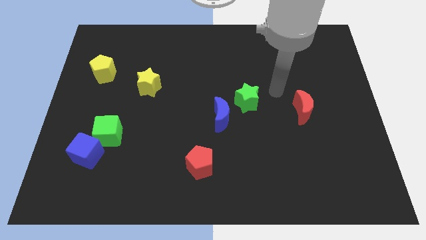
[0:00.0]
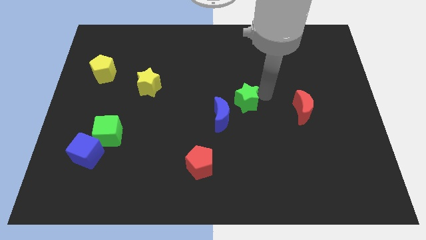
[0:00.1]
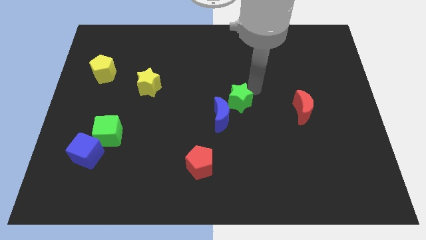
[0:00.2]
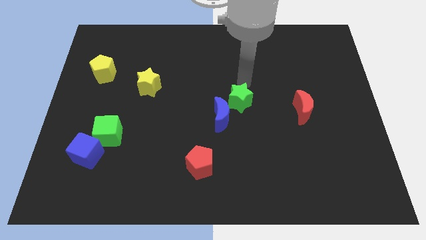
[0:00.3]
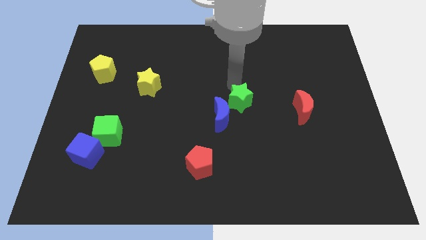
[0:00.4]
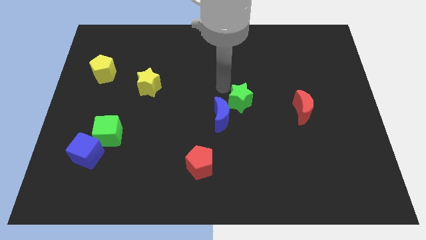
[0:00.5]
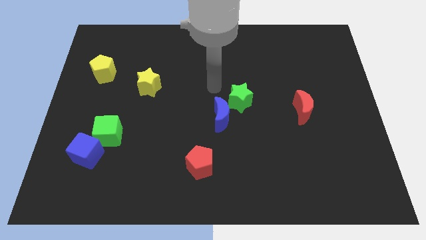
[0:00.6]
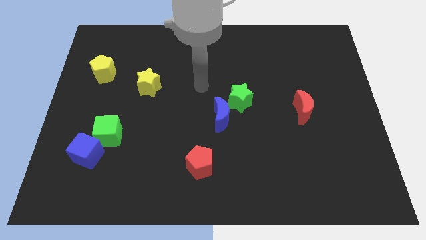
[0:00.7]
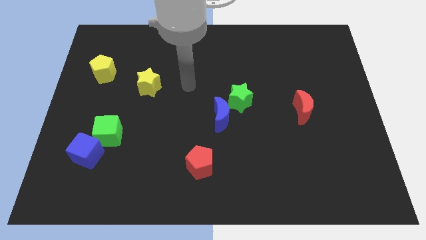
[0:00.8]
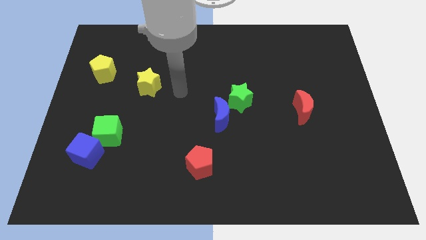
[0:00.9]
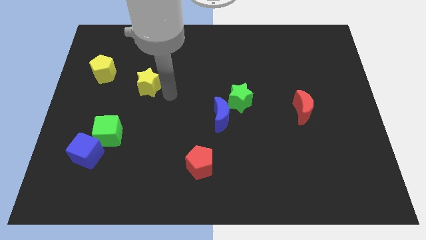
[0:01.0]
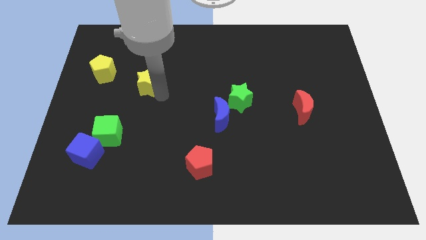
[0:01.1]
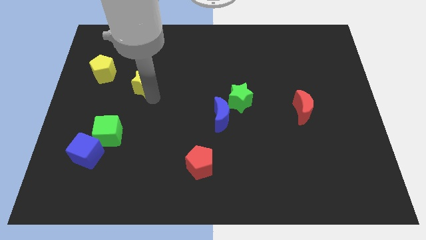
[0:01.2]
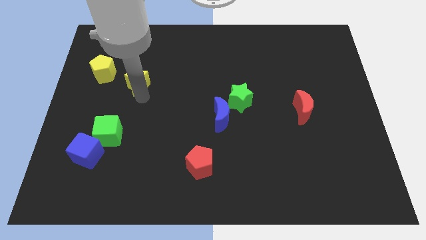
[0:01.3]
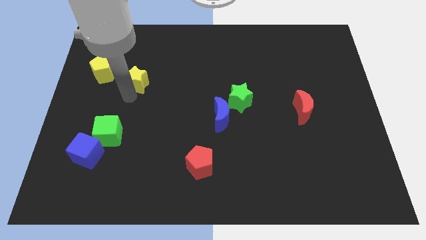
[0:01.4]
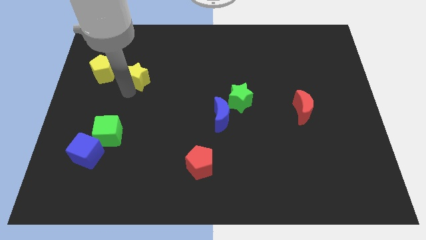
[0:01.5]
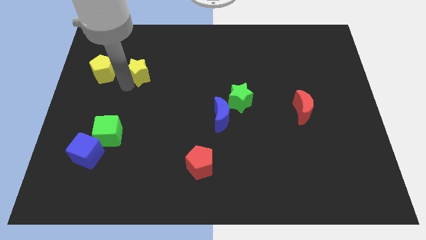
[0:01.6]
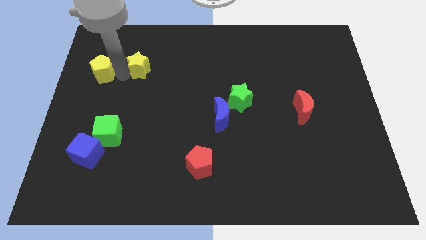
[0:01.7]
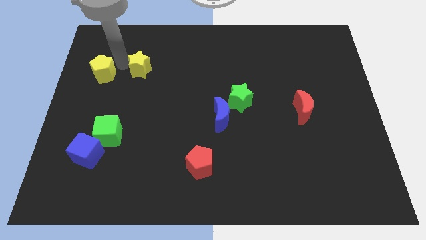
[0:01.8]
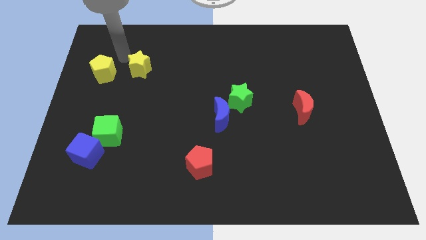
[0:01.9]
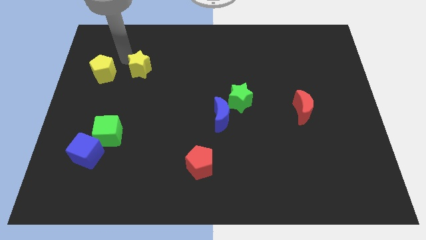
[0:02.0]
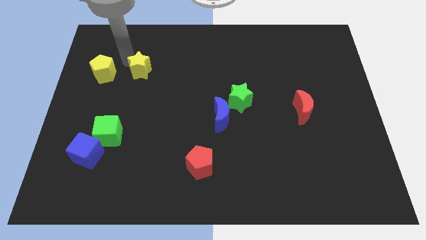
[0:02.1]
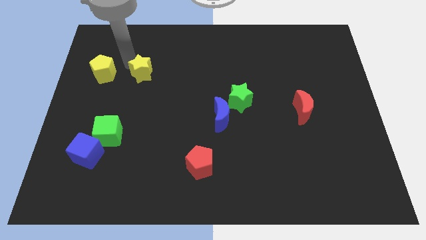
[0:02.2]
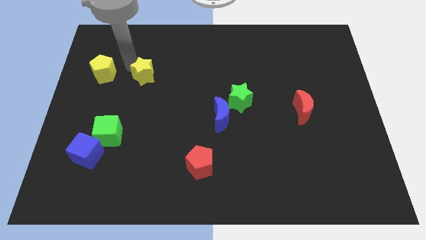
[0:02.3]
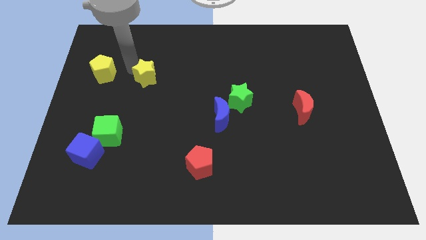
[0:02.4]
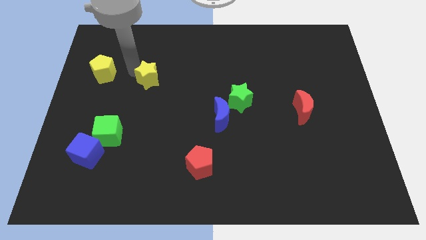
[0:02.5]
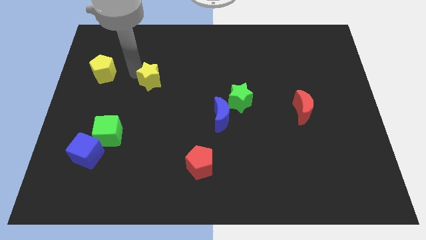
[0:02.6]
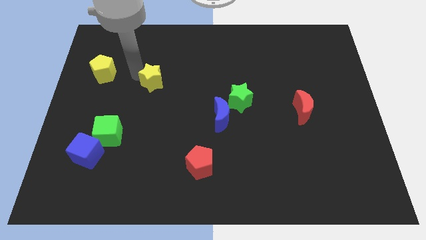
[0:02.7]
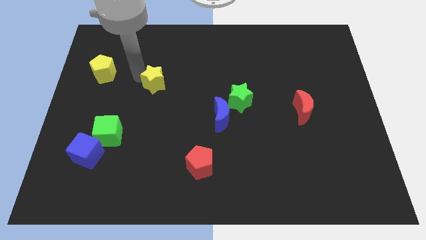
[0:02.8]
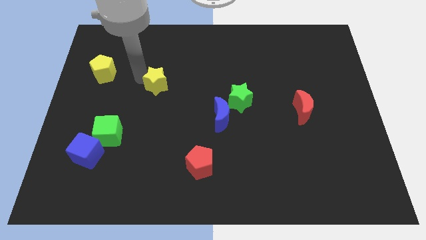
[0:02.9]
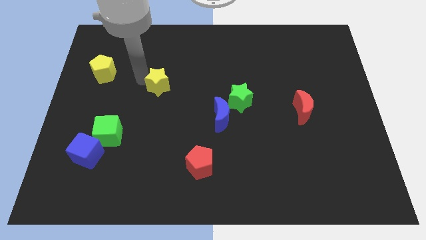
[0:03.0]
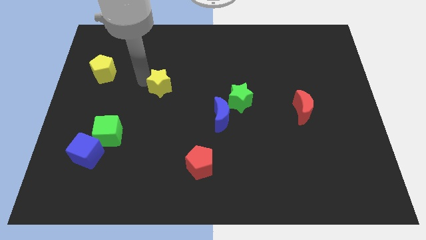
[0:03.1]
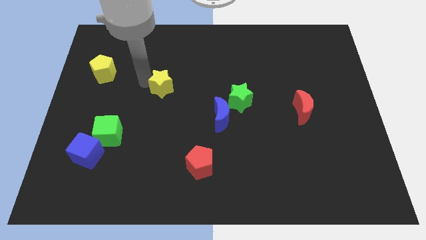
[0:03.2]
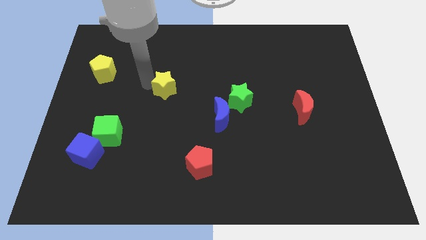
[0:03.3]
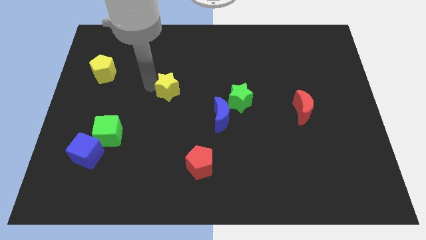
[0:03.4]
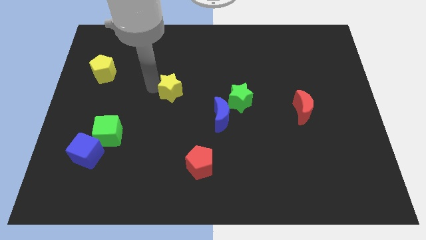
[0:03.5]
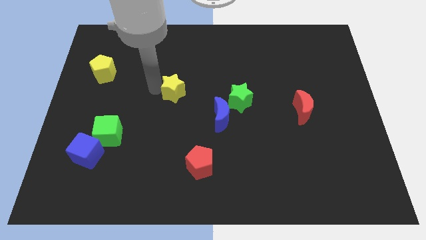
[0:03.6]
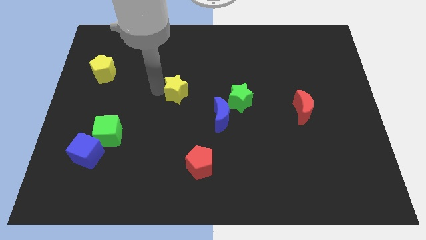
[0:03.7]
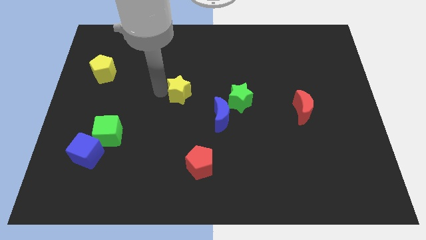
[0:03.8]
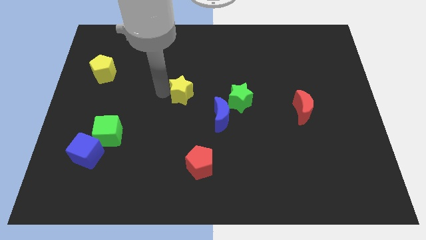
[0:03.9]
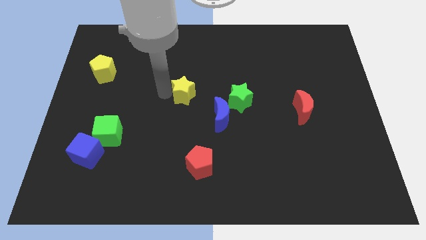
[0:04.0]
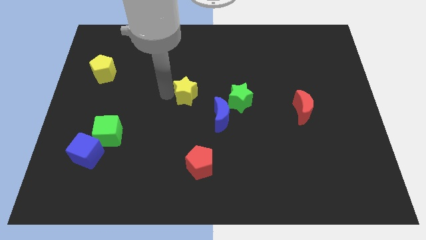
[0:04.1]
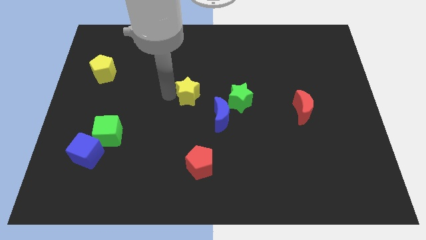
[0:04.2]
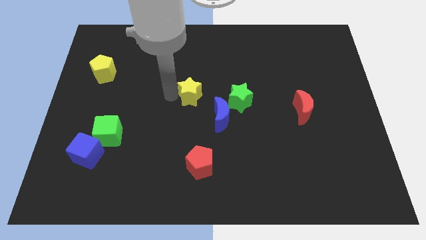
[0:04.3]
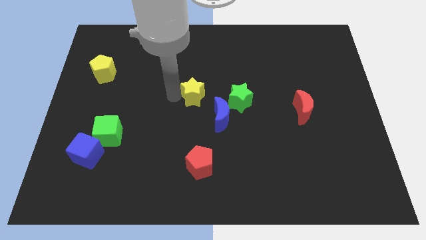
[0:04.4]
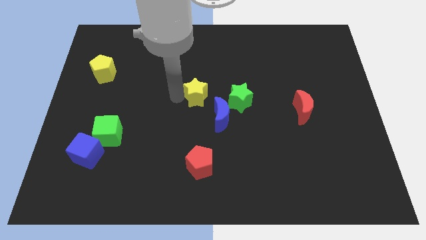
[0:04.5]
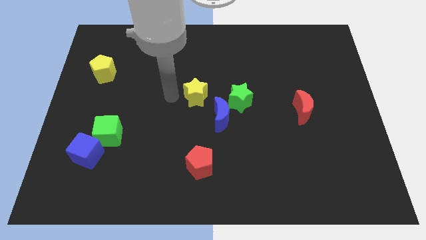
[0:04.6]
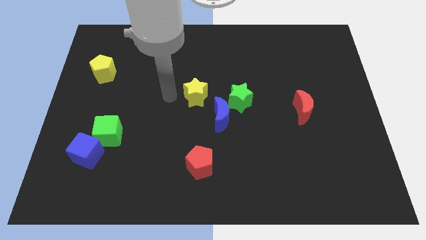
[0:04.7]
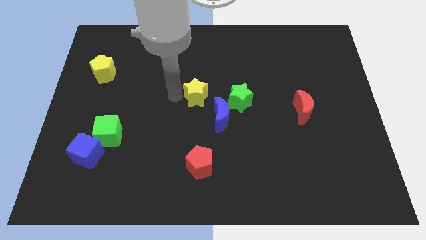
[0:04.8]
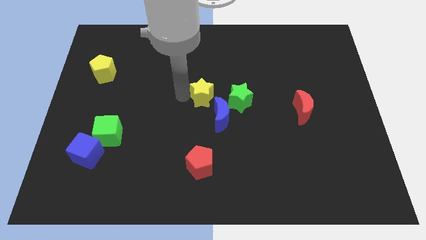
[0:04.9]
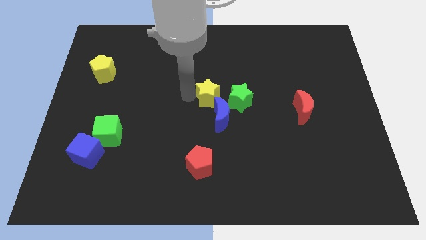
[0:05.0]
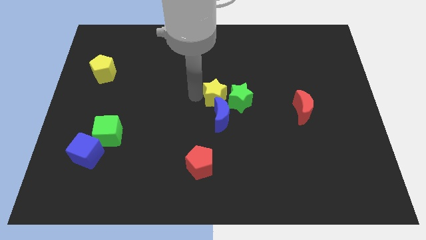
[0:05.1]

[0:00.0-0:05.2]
move the yellow star close to the green star

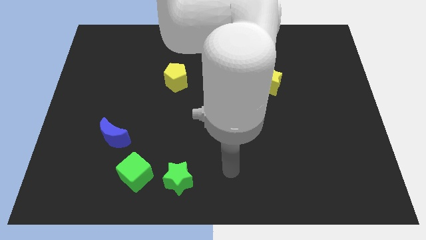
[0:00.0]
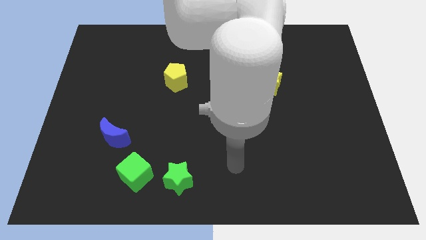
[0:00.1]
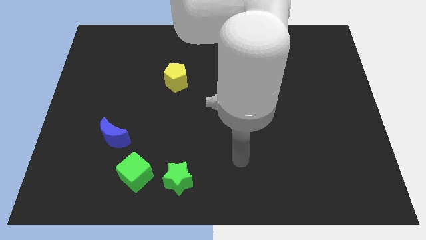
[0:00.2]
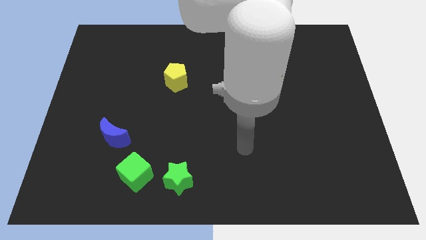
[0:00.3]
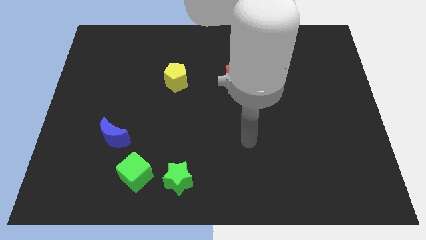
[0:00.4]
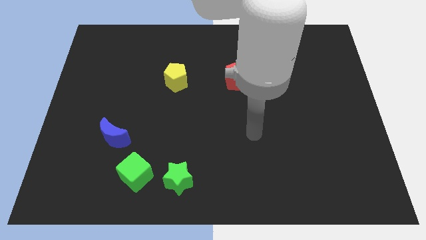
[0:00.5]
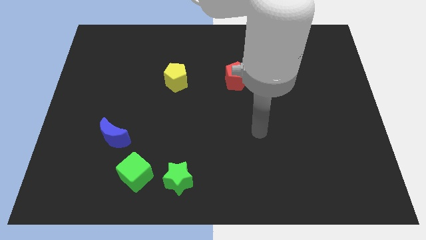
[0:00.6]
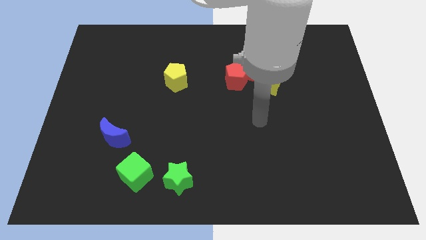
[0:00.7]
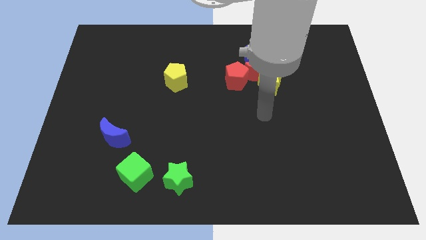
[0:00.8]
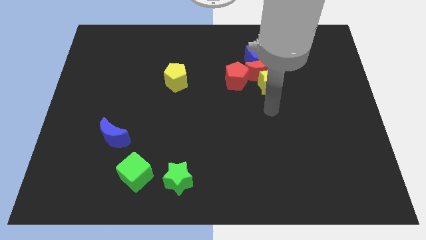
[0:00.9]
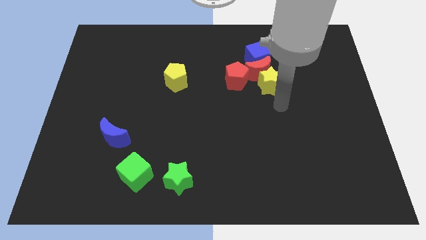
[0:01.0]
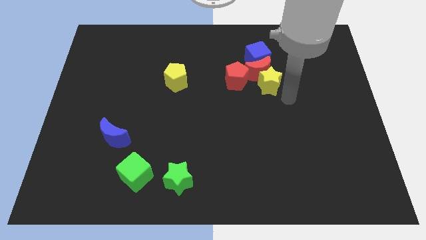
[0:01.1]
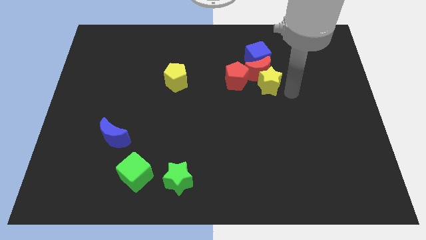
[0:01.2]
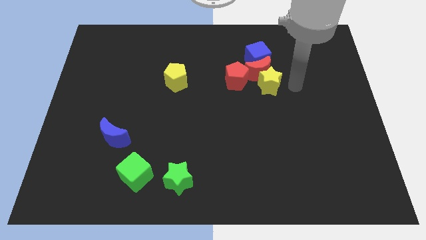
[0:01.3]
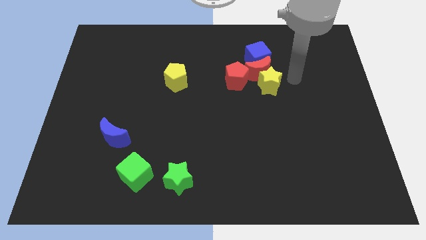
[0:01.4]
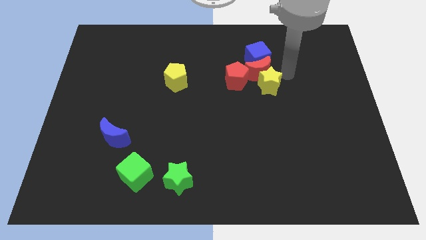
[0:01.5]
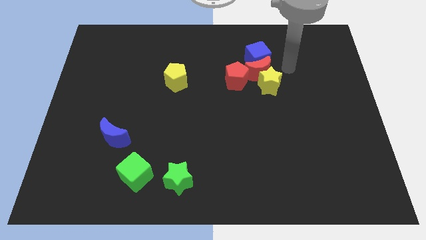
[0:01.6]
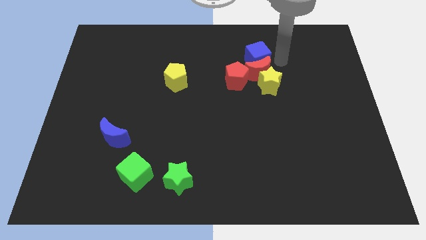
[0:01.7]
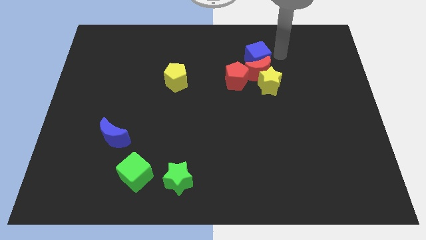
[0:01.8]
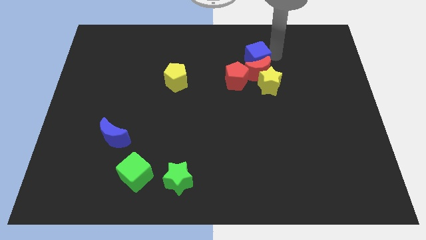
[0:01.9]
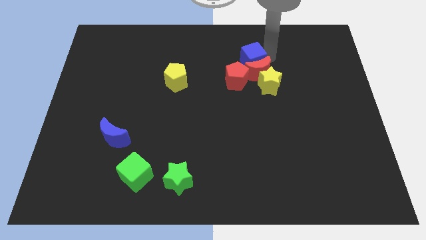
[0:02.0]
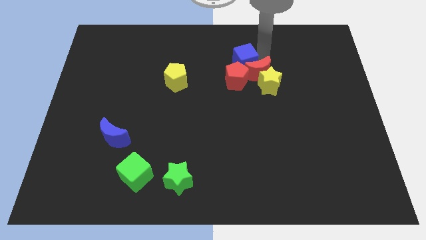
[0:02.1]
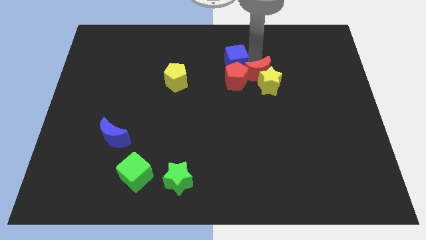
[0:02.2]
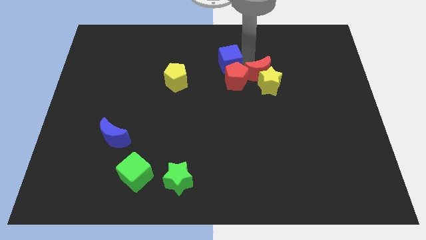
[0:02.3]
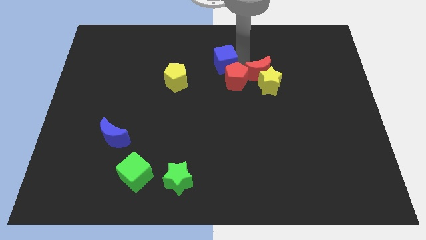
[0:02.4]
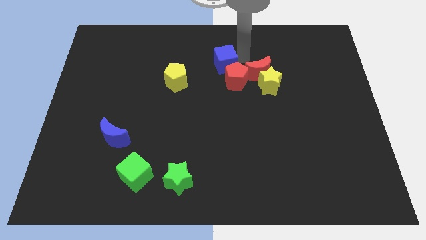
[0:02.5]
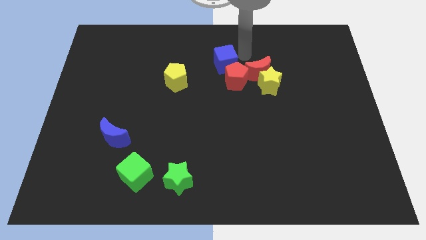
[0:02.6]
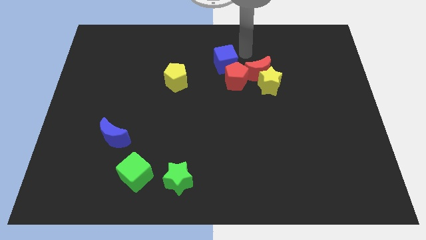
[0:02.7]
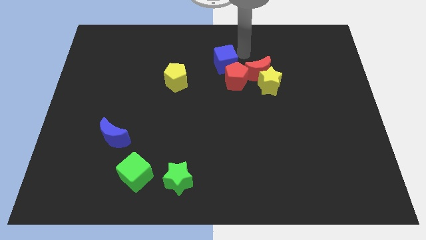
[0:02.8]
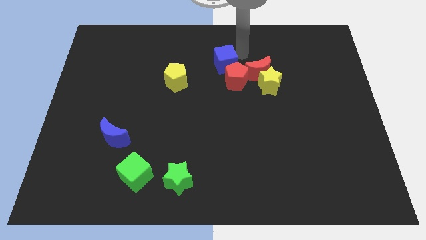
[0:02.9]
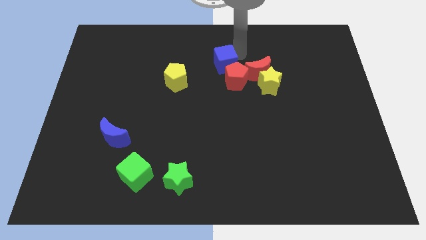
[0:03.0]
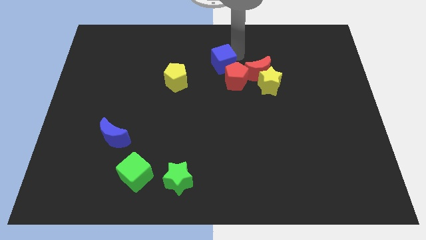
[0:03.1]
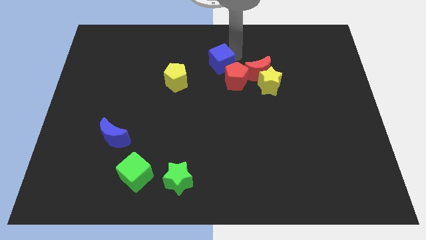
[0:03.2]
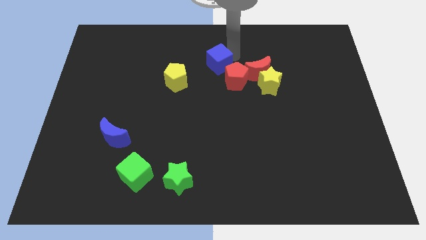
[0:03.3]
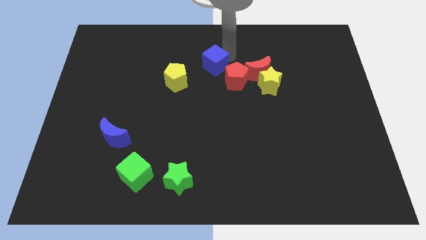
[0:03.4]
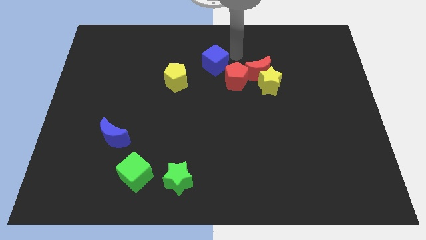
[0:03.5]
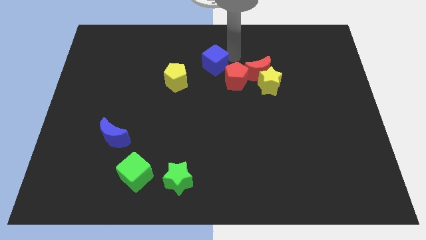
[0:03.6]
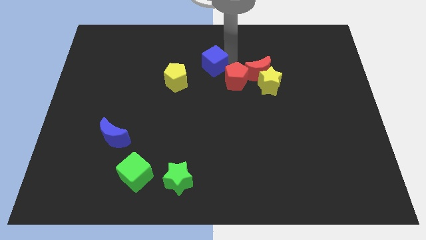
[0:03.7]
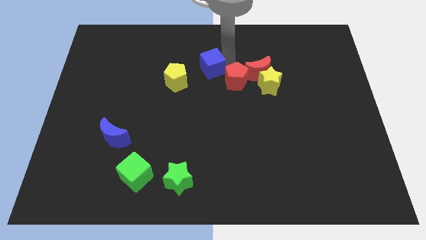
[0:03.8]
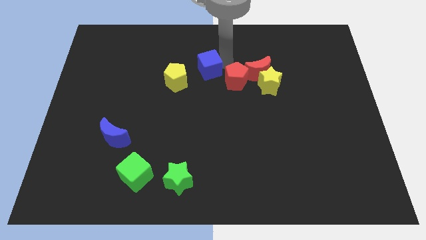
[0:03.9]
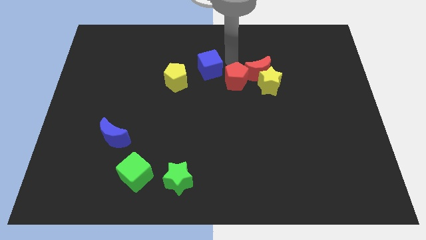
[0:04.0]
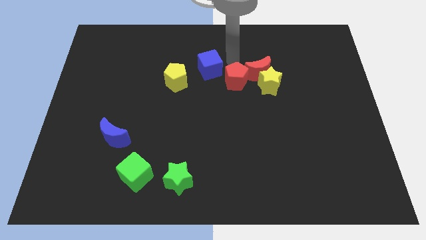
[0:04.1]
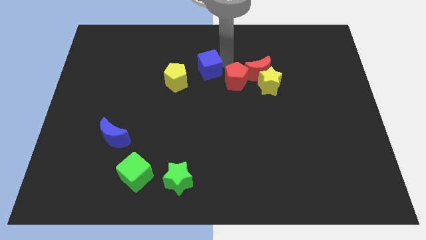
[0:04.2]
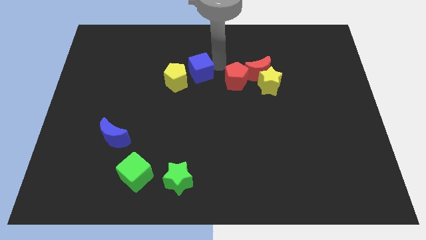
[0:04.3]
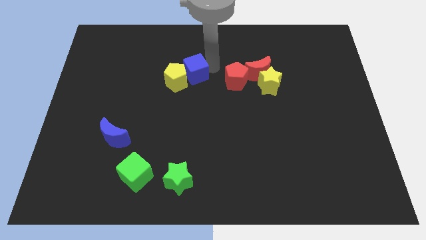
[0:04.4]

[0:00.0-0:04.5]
put the blue cube next to the yellow pentagon
